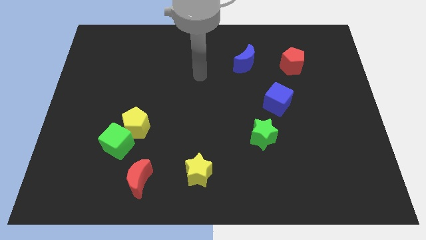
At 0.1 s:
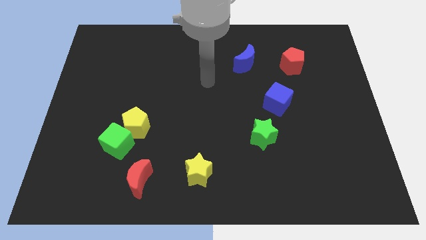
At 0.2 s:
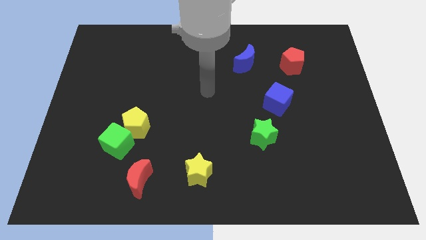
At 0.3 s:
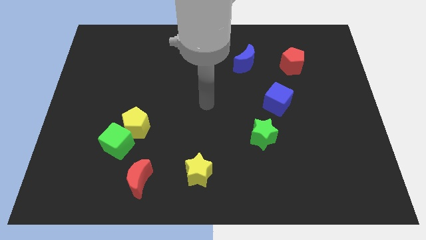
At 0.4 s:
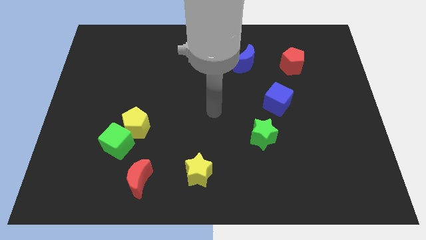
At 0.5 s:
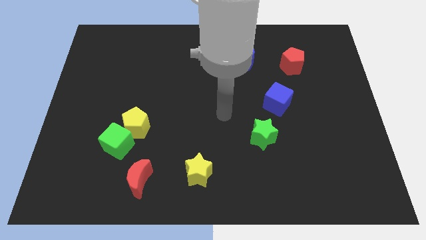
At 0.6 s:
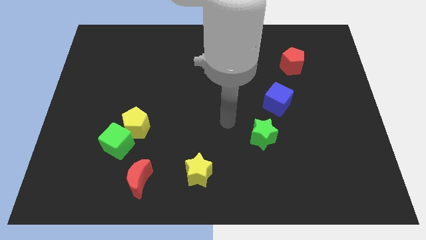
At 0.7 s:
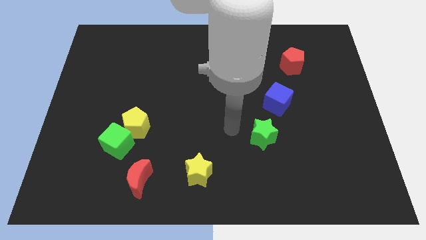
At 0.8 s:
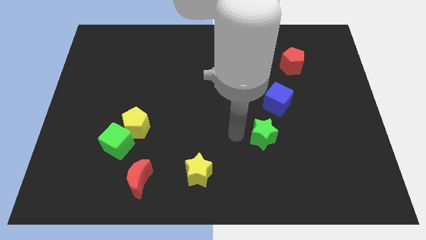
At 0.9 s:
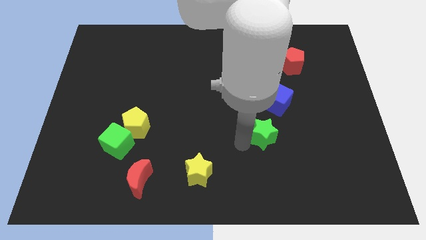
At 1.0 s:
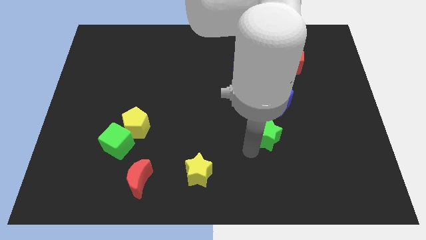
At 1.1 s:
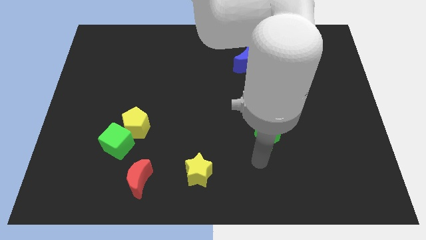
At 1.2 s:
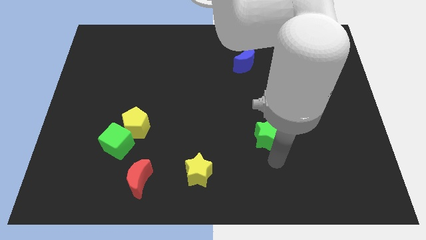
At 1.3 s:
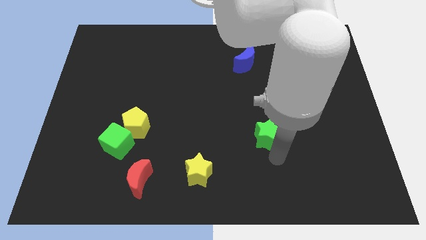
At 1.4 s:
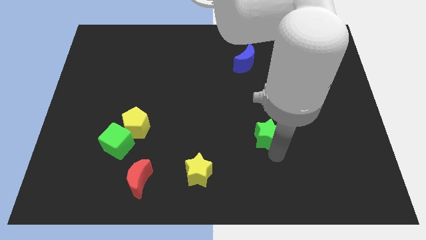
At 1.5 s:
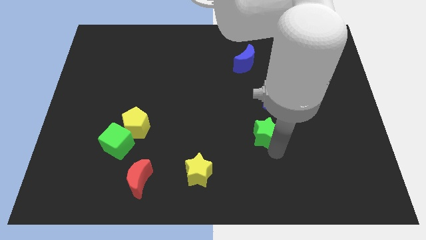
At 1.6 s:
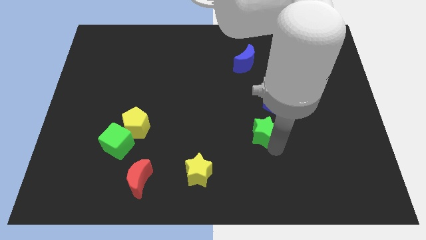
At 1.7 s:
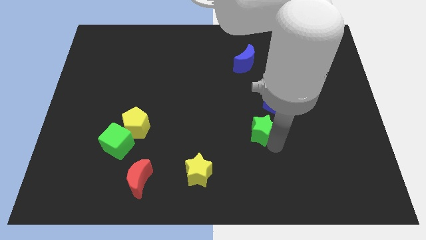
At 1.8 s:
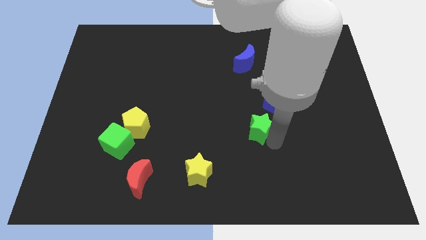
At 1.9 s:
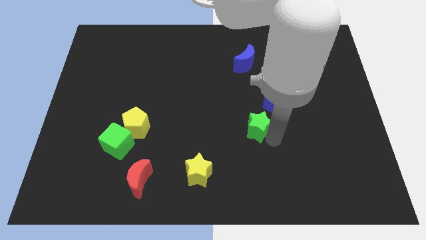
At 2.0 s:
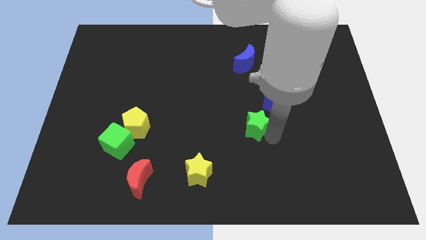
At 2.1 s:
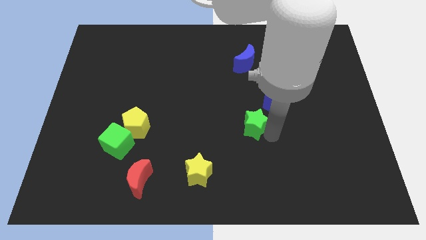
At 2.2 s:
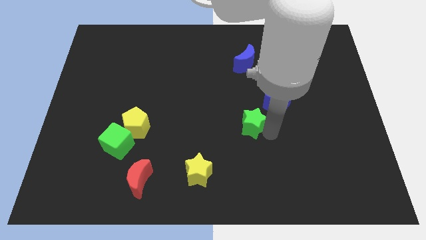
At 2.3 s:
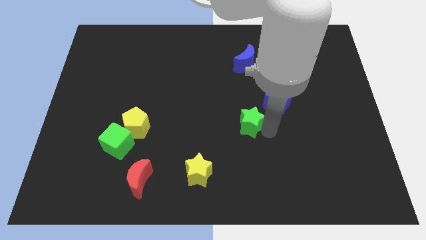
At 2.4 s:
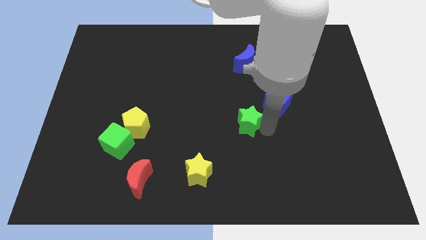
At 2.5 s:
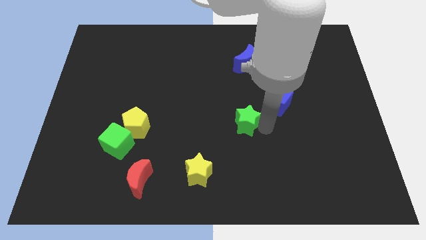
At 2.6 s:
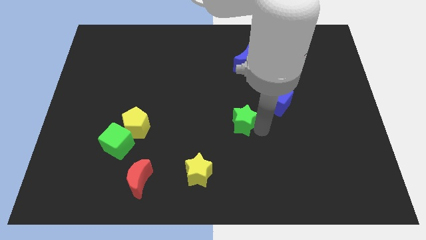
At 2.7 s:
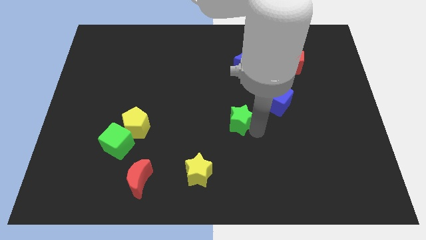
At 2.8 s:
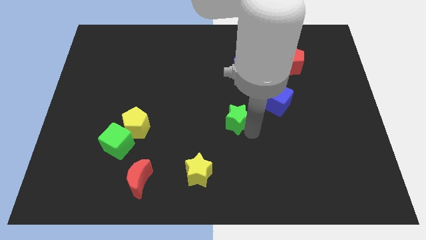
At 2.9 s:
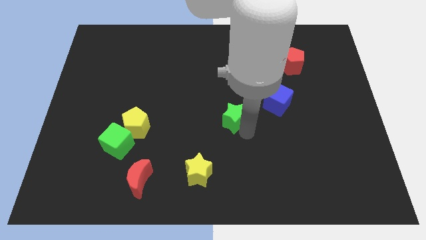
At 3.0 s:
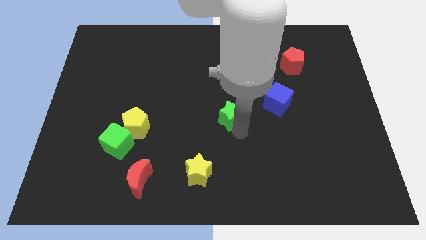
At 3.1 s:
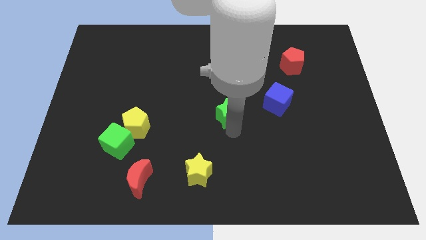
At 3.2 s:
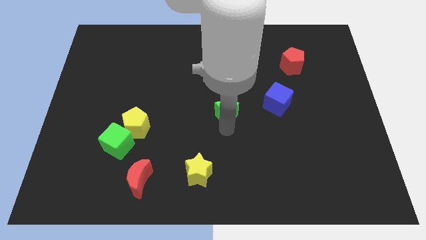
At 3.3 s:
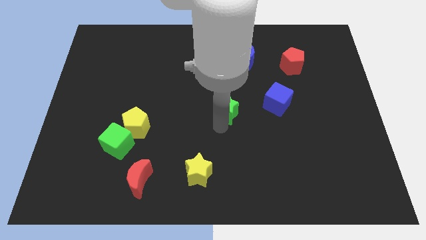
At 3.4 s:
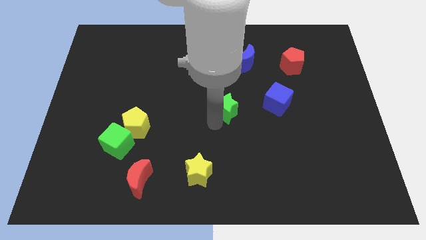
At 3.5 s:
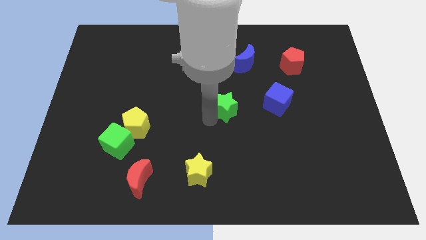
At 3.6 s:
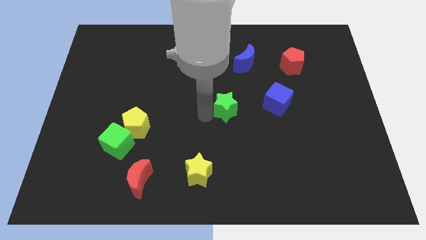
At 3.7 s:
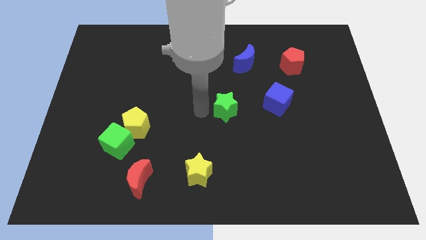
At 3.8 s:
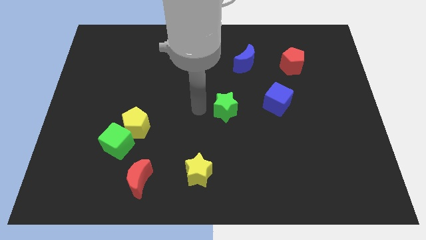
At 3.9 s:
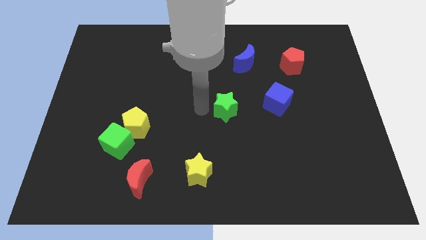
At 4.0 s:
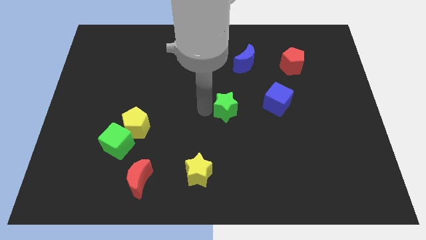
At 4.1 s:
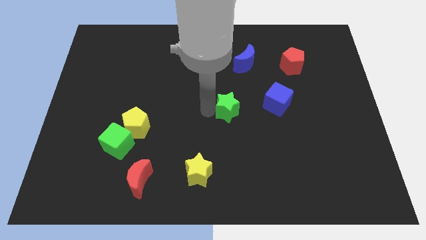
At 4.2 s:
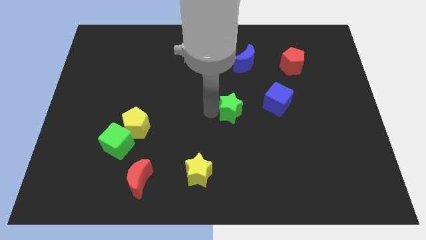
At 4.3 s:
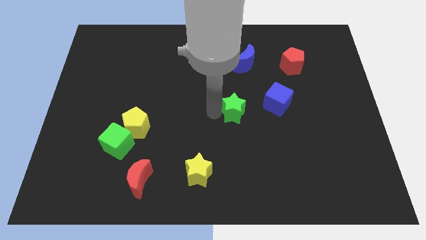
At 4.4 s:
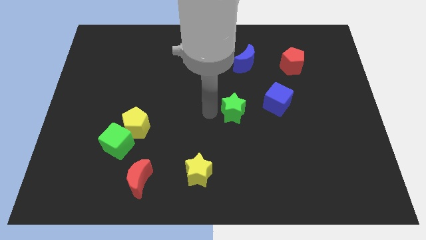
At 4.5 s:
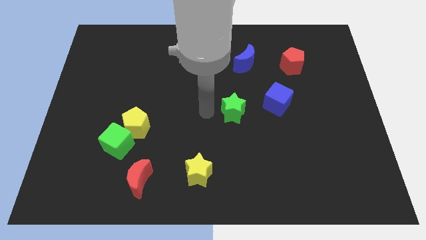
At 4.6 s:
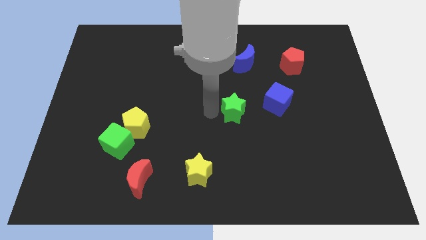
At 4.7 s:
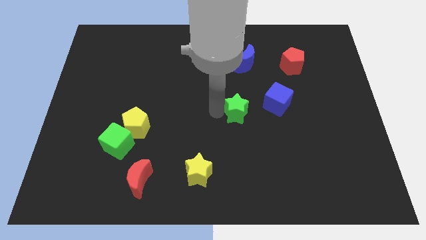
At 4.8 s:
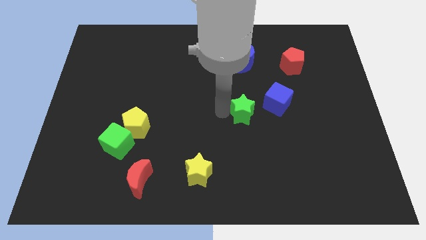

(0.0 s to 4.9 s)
push the green star below the blue moon

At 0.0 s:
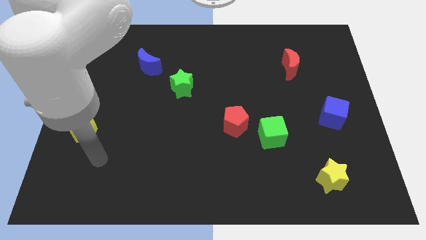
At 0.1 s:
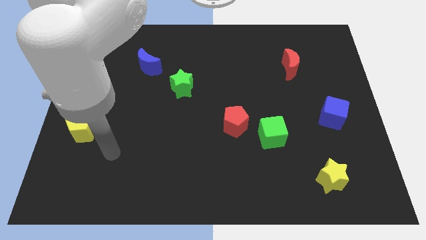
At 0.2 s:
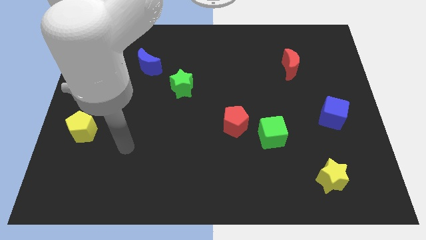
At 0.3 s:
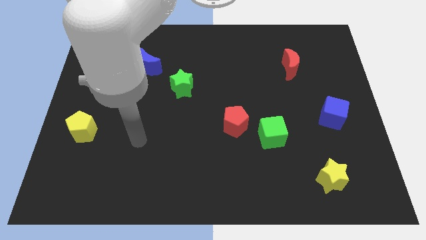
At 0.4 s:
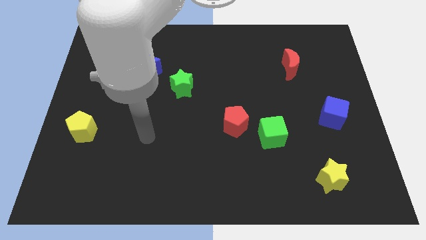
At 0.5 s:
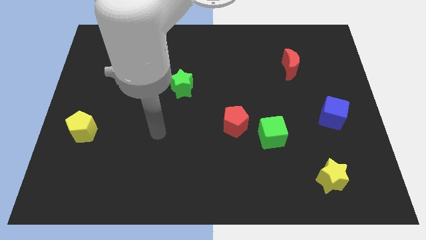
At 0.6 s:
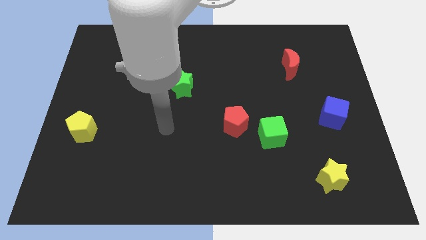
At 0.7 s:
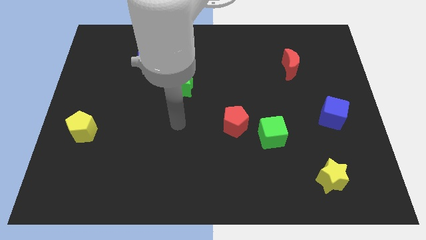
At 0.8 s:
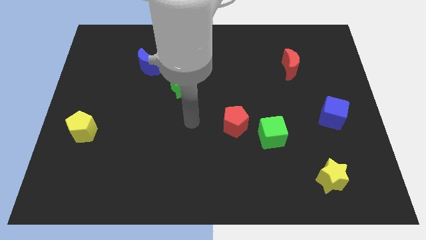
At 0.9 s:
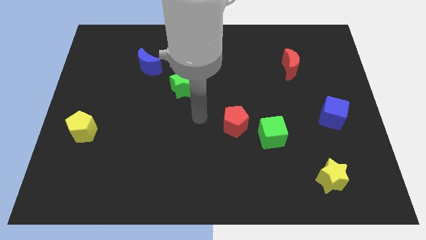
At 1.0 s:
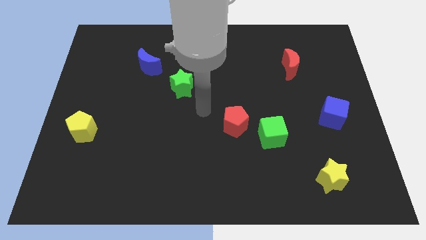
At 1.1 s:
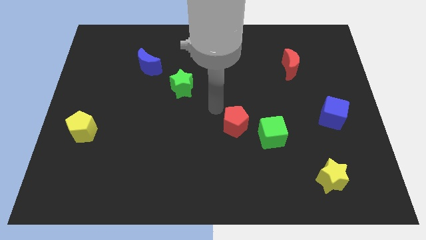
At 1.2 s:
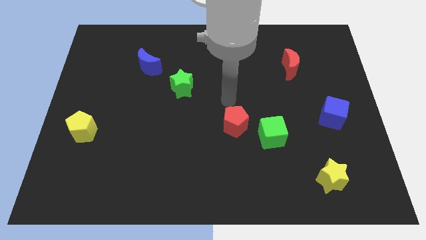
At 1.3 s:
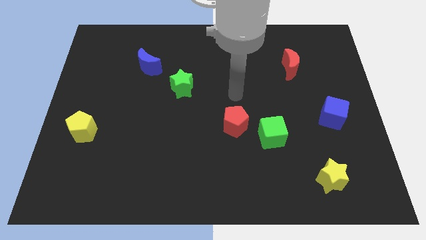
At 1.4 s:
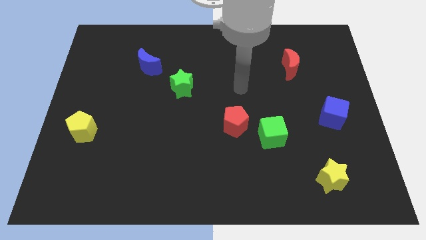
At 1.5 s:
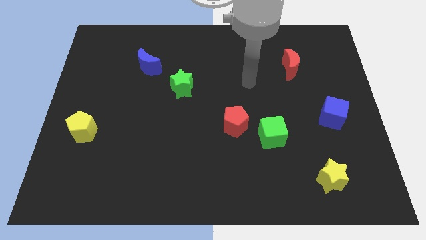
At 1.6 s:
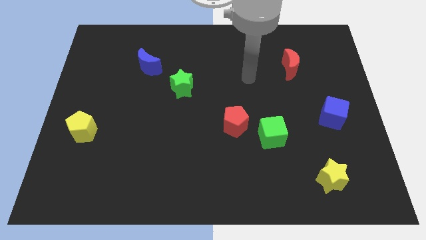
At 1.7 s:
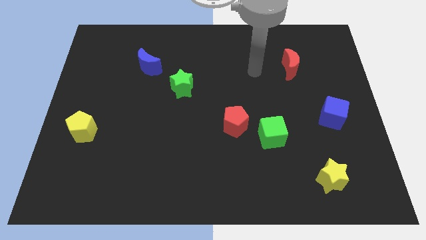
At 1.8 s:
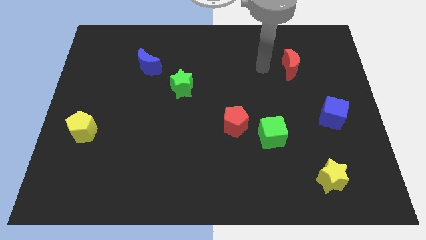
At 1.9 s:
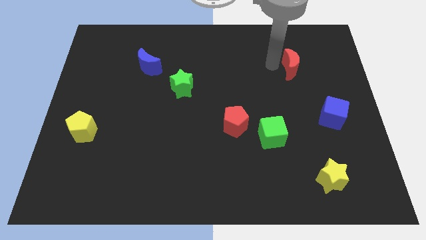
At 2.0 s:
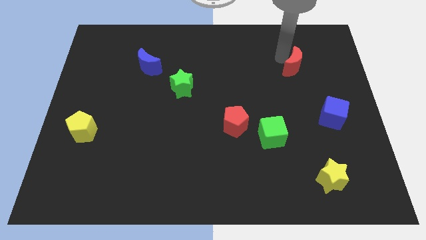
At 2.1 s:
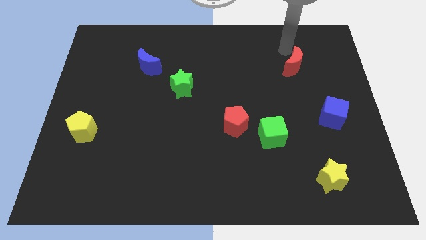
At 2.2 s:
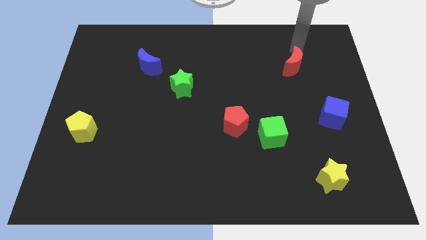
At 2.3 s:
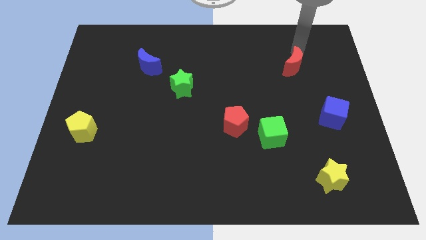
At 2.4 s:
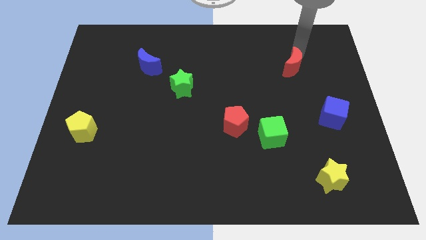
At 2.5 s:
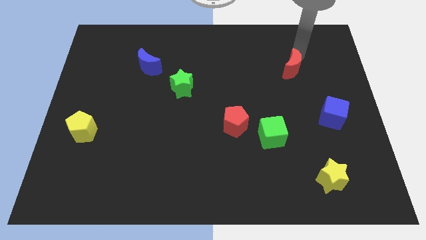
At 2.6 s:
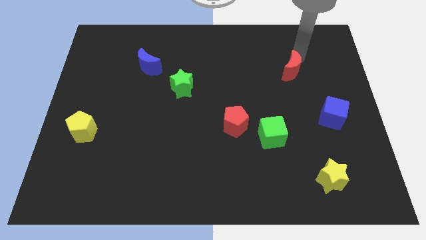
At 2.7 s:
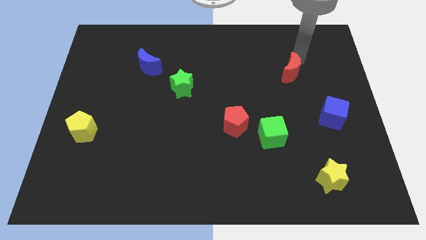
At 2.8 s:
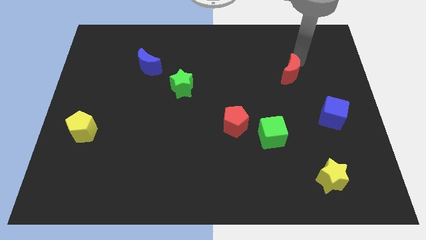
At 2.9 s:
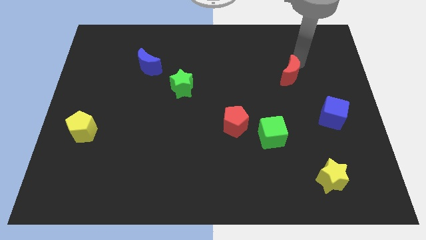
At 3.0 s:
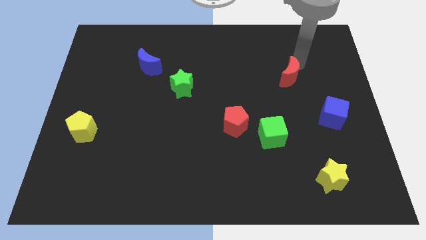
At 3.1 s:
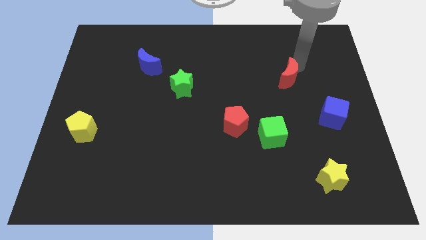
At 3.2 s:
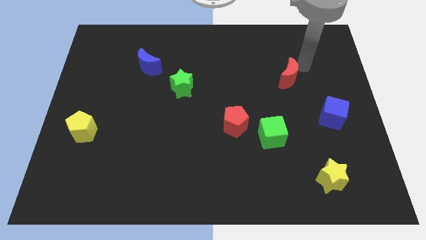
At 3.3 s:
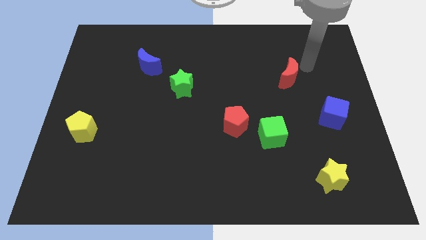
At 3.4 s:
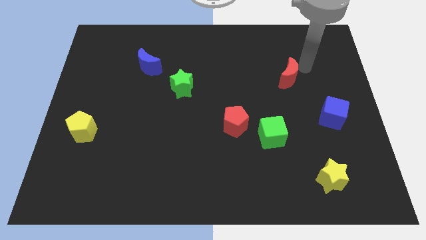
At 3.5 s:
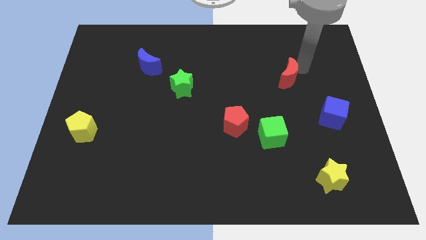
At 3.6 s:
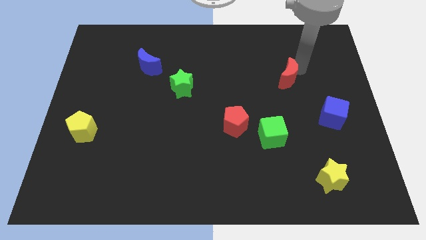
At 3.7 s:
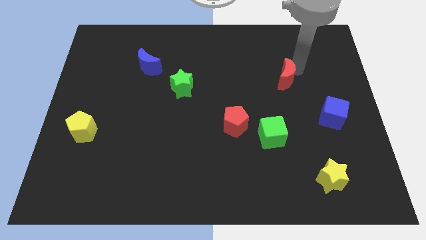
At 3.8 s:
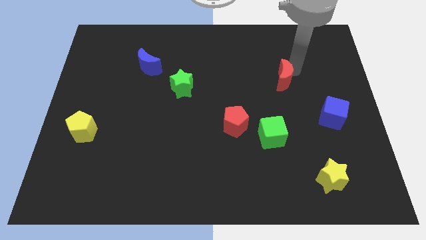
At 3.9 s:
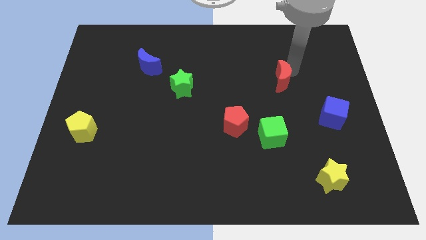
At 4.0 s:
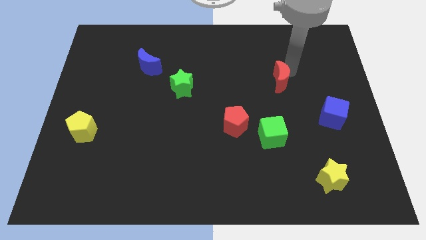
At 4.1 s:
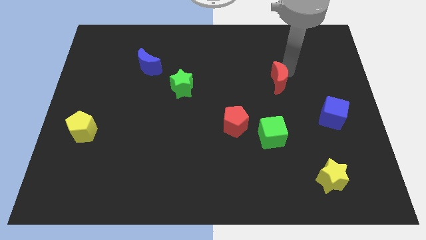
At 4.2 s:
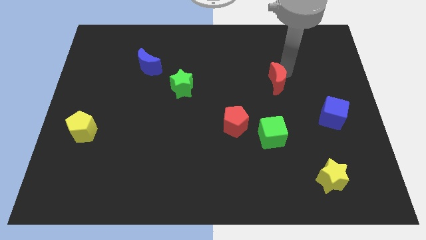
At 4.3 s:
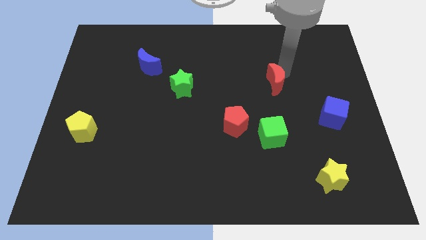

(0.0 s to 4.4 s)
put the red moon to the top of the green cube
